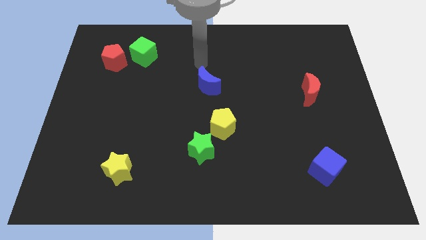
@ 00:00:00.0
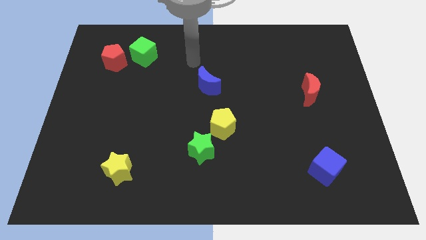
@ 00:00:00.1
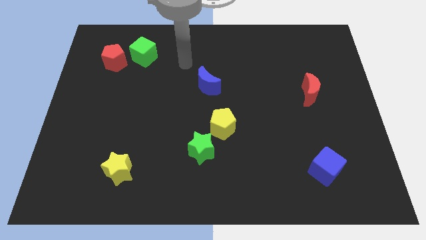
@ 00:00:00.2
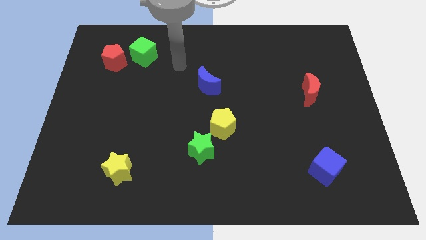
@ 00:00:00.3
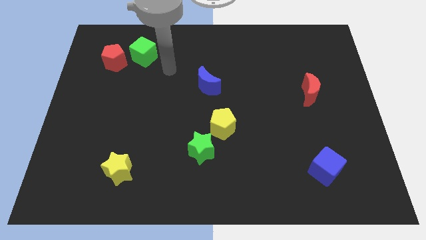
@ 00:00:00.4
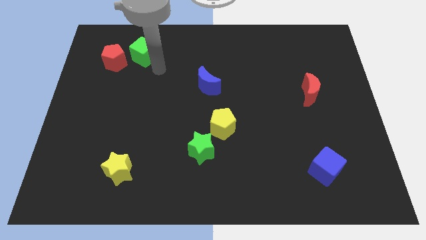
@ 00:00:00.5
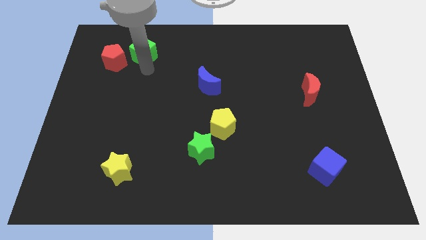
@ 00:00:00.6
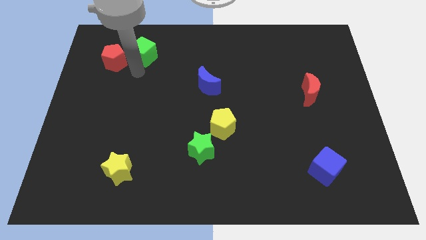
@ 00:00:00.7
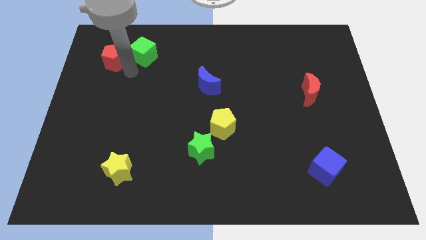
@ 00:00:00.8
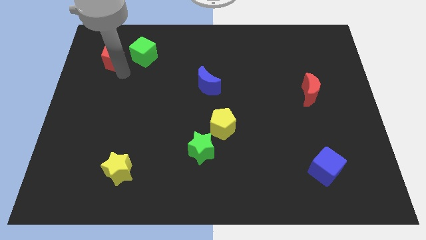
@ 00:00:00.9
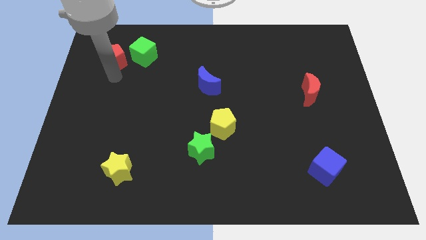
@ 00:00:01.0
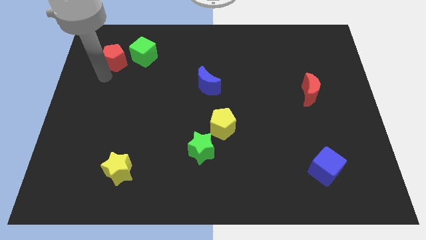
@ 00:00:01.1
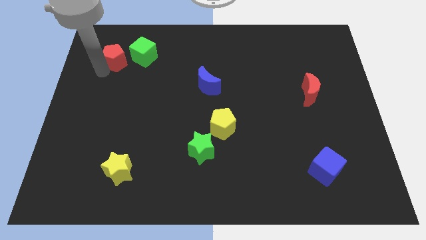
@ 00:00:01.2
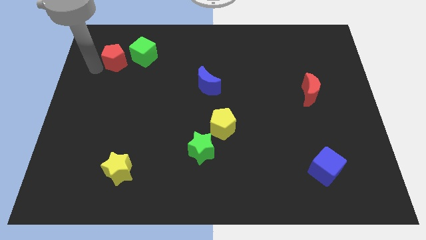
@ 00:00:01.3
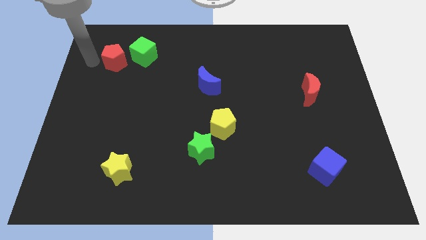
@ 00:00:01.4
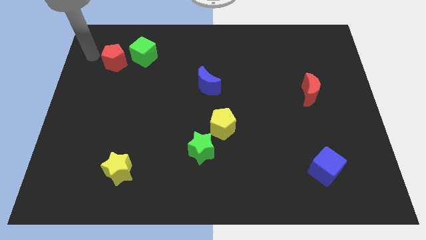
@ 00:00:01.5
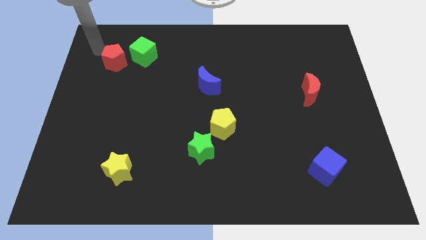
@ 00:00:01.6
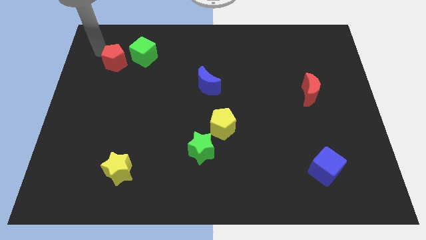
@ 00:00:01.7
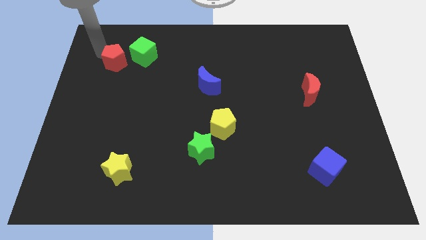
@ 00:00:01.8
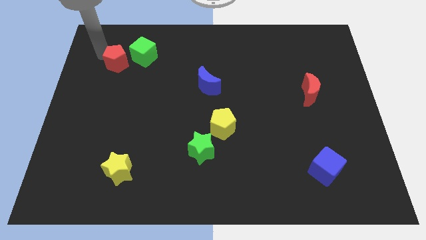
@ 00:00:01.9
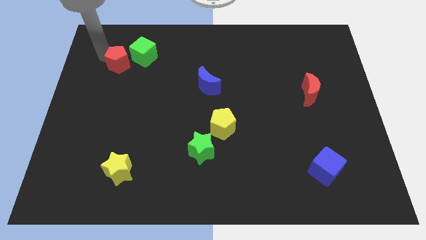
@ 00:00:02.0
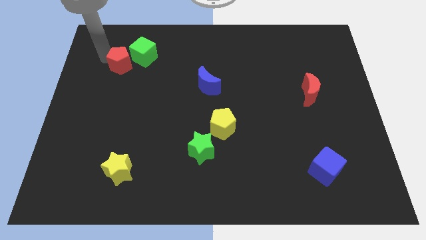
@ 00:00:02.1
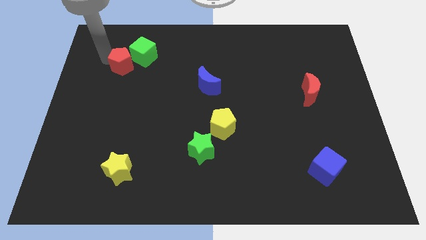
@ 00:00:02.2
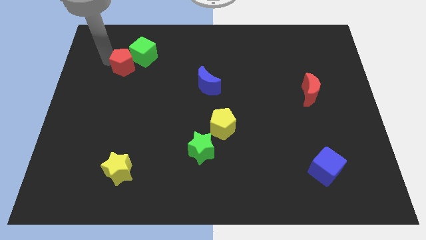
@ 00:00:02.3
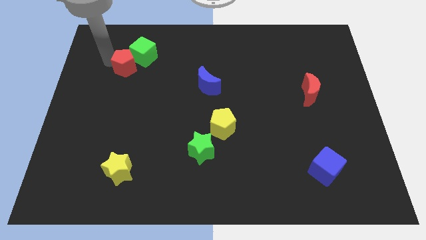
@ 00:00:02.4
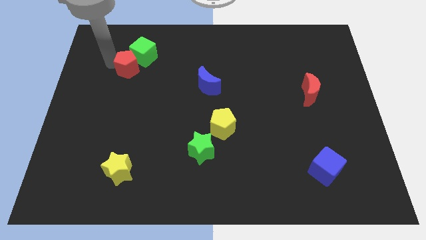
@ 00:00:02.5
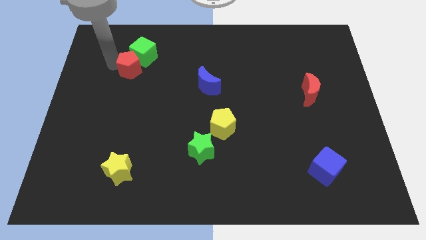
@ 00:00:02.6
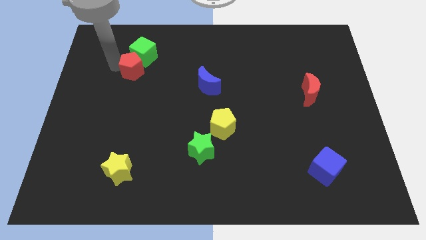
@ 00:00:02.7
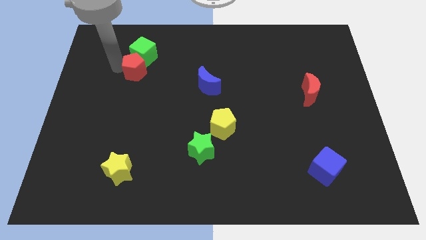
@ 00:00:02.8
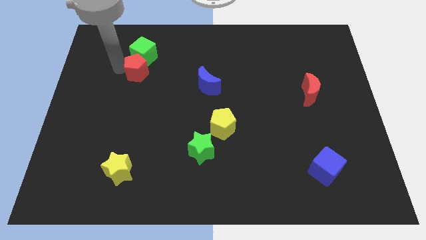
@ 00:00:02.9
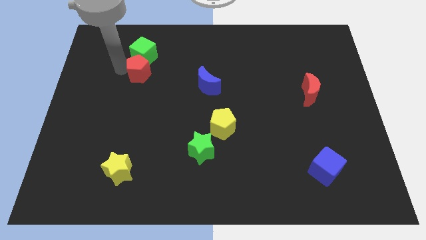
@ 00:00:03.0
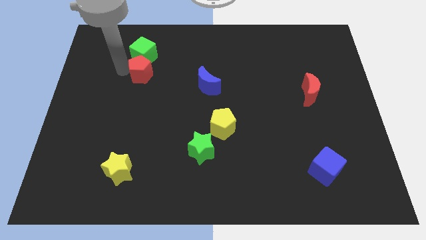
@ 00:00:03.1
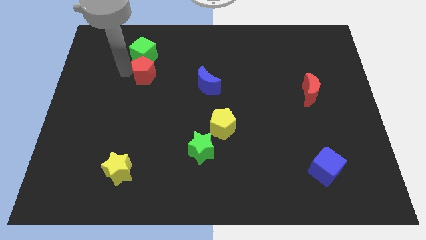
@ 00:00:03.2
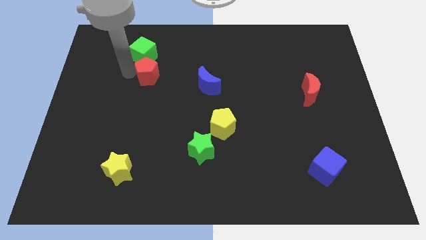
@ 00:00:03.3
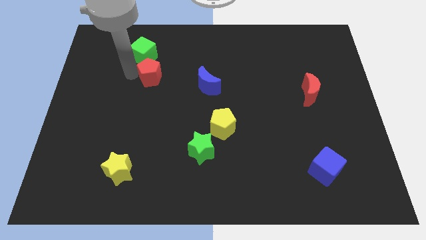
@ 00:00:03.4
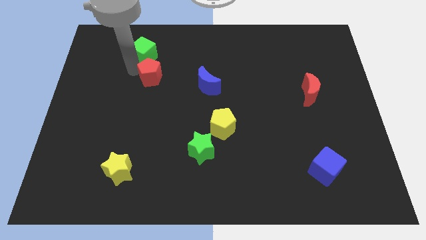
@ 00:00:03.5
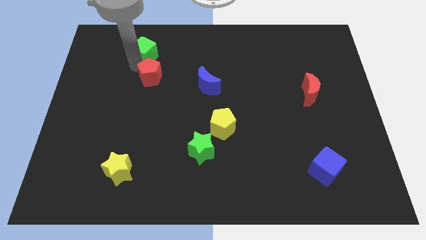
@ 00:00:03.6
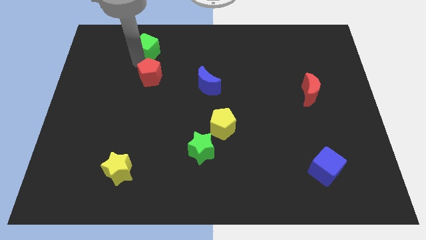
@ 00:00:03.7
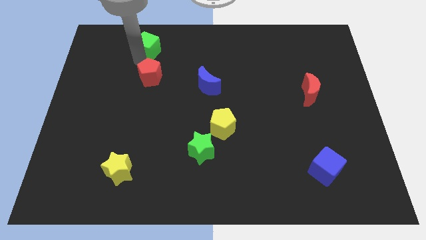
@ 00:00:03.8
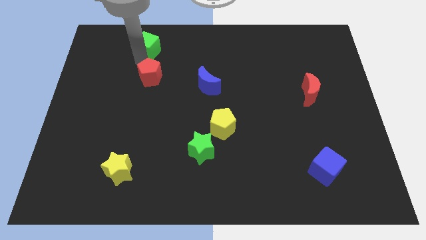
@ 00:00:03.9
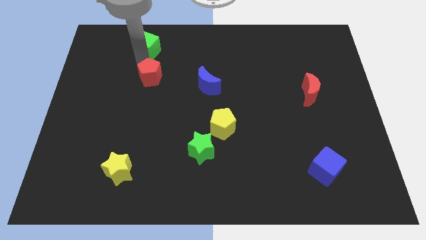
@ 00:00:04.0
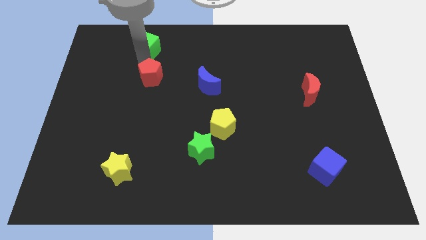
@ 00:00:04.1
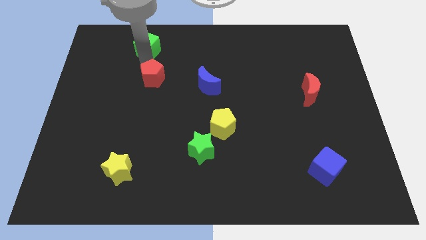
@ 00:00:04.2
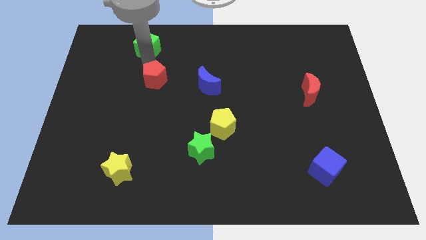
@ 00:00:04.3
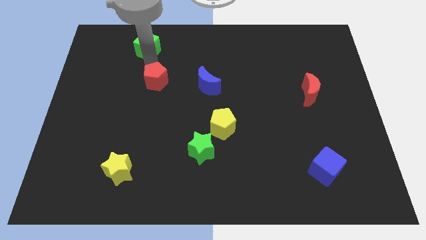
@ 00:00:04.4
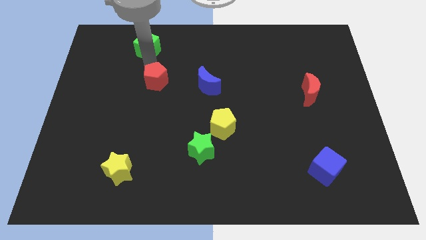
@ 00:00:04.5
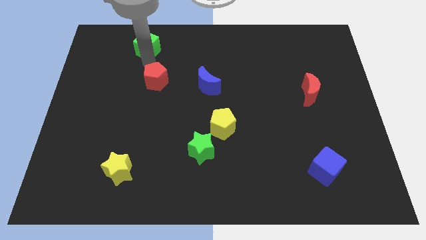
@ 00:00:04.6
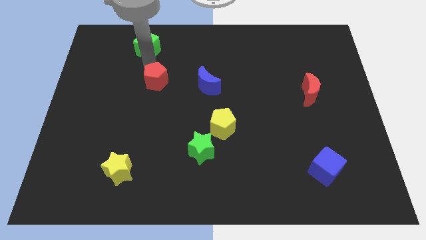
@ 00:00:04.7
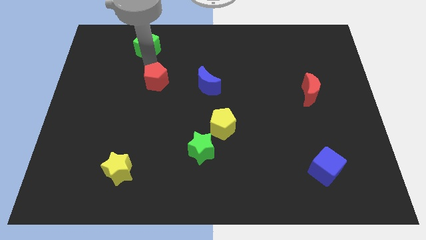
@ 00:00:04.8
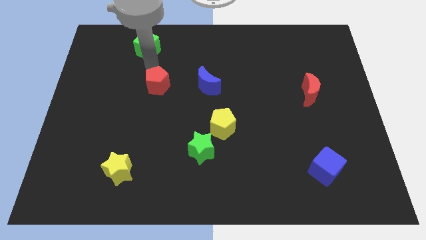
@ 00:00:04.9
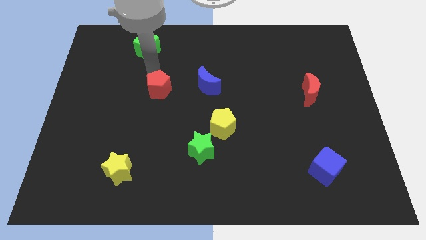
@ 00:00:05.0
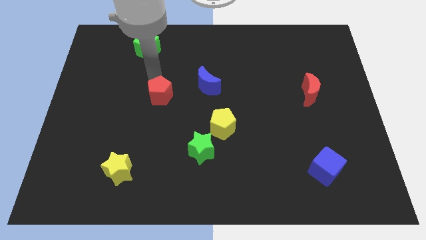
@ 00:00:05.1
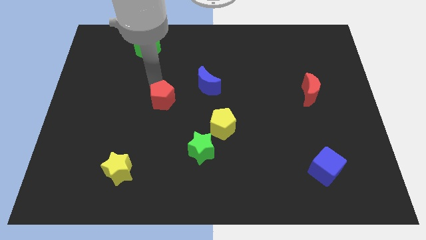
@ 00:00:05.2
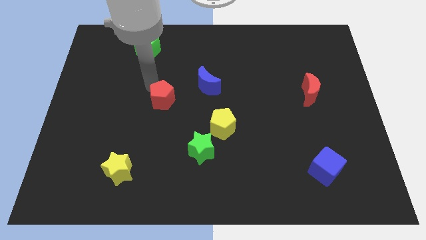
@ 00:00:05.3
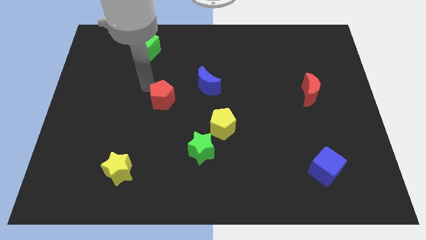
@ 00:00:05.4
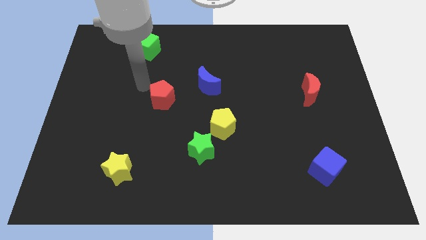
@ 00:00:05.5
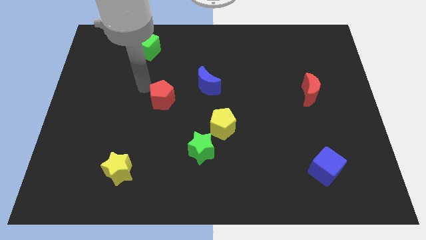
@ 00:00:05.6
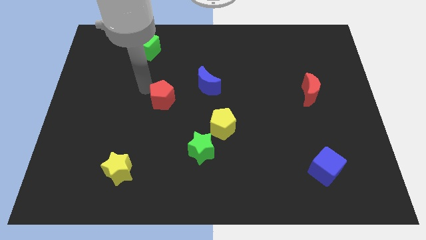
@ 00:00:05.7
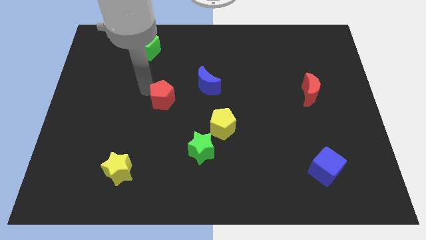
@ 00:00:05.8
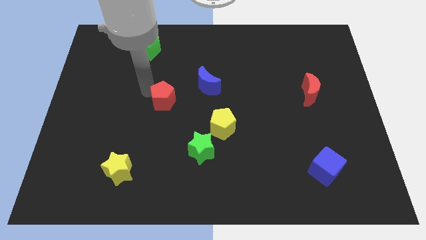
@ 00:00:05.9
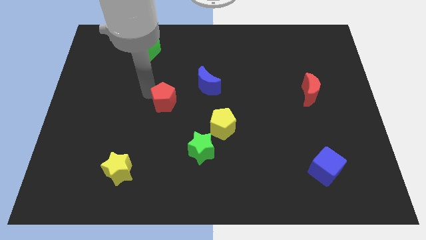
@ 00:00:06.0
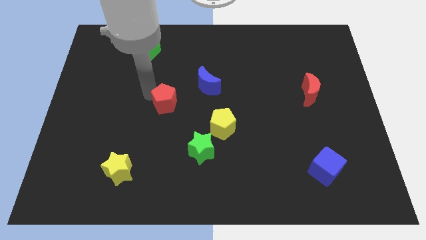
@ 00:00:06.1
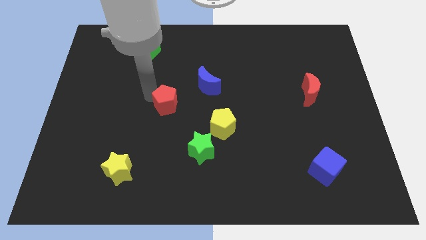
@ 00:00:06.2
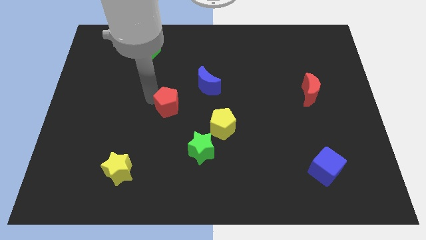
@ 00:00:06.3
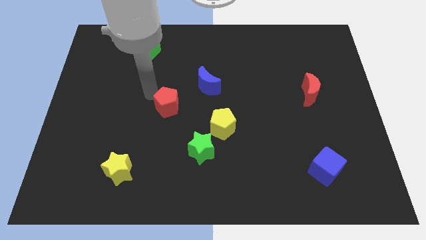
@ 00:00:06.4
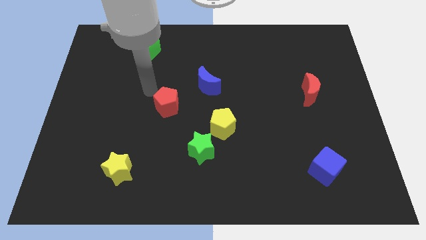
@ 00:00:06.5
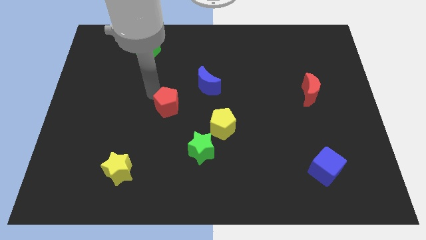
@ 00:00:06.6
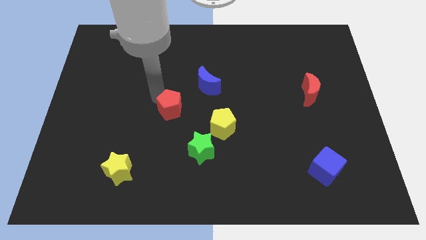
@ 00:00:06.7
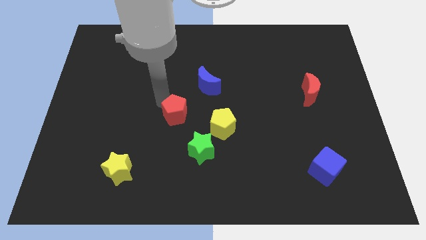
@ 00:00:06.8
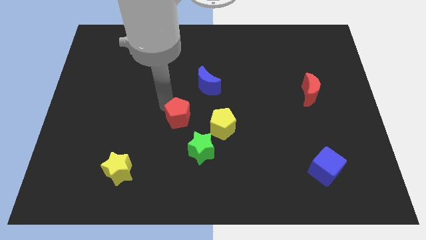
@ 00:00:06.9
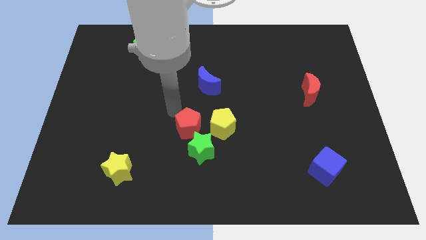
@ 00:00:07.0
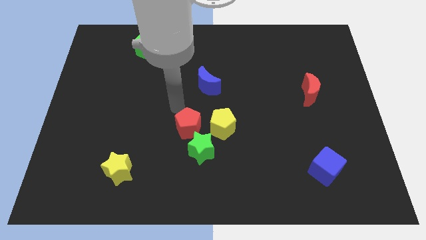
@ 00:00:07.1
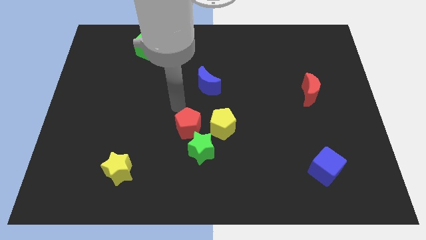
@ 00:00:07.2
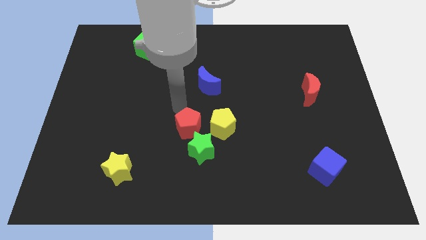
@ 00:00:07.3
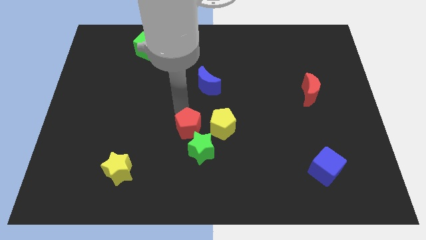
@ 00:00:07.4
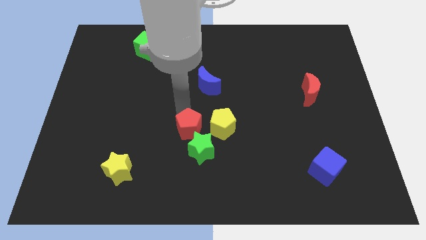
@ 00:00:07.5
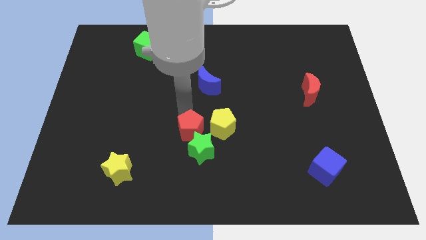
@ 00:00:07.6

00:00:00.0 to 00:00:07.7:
put the red pentagon next to the green star
